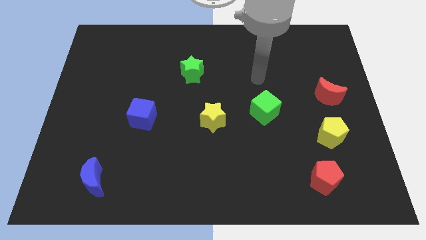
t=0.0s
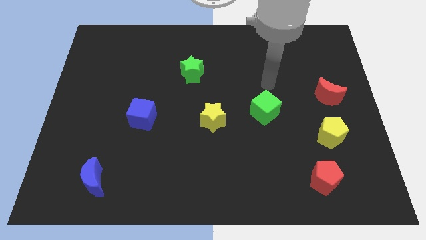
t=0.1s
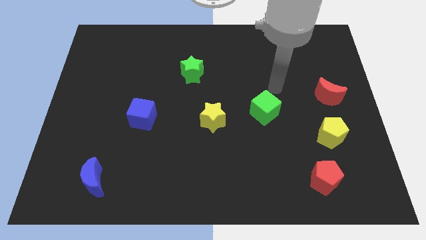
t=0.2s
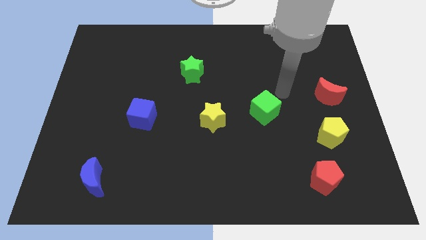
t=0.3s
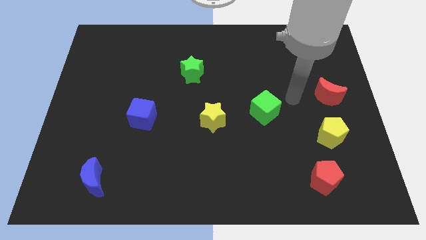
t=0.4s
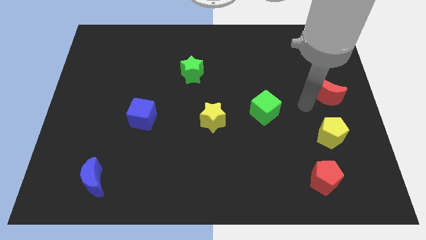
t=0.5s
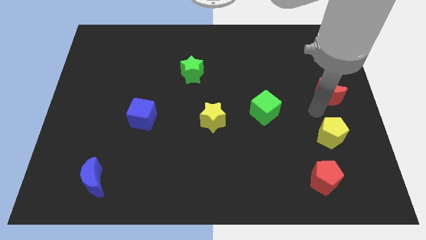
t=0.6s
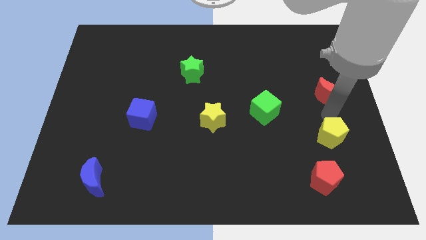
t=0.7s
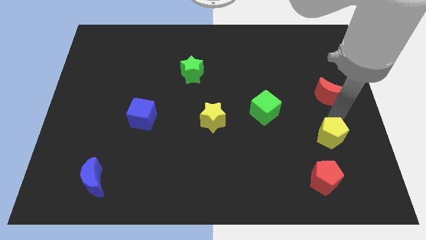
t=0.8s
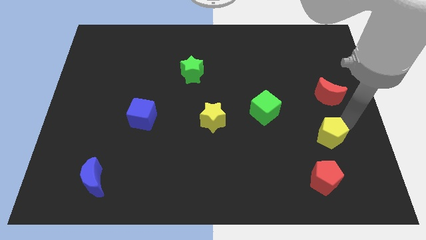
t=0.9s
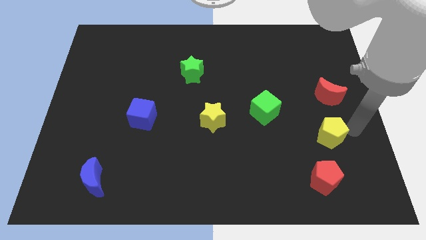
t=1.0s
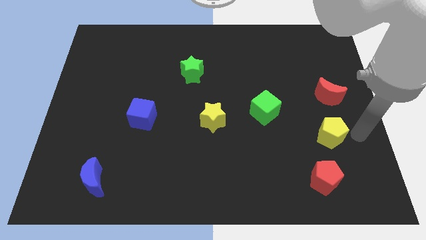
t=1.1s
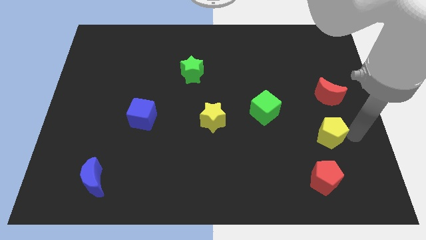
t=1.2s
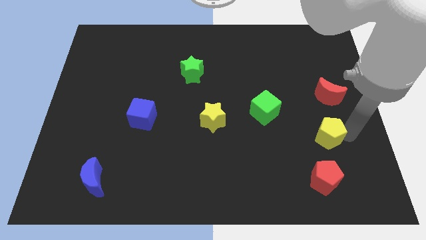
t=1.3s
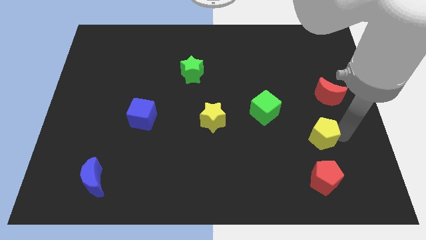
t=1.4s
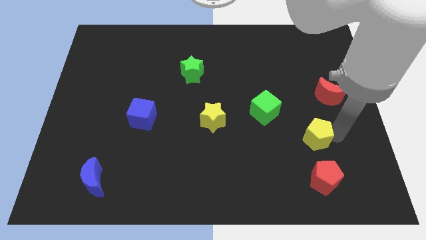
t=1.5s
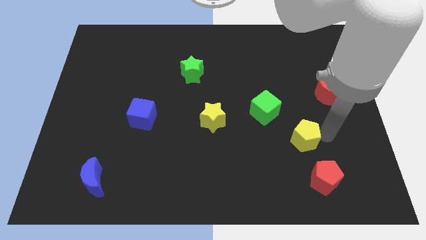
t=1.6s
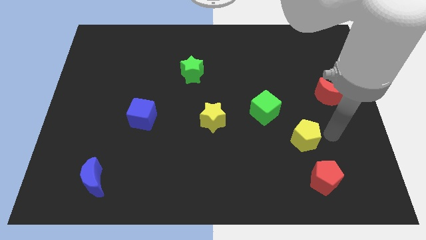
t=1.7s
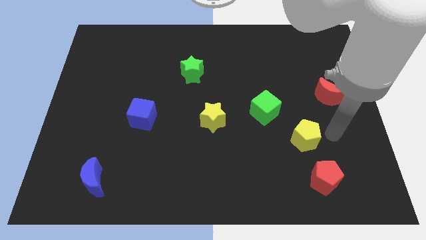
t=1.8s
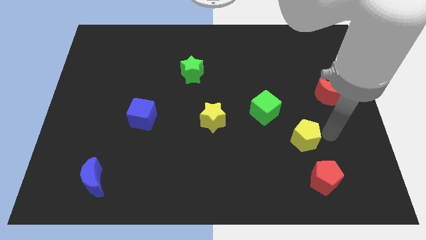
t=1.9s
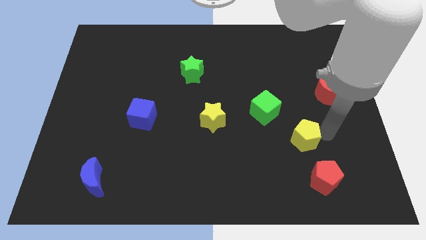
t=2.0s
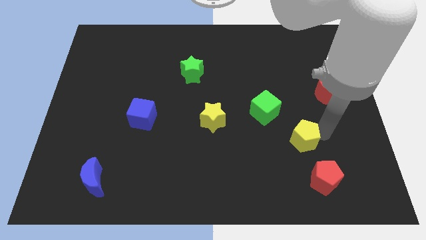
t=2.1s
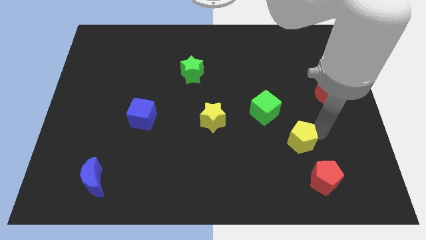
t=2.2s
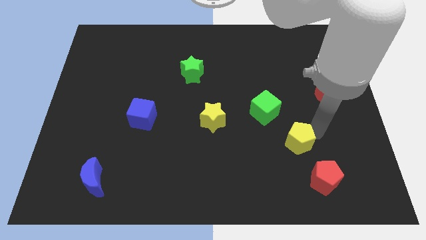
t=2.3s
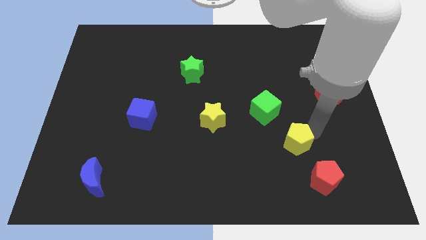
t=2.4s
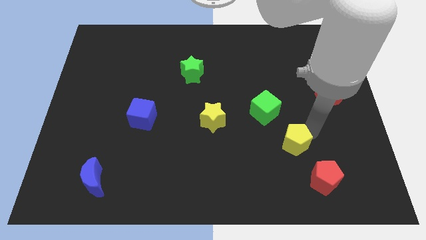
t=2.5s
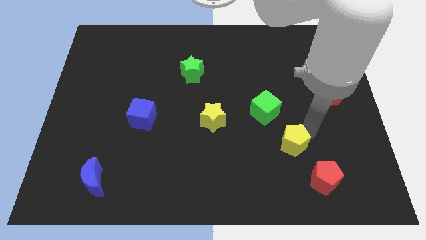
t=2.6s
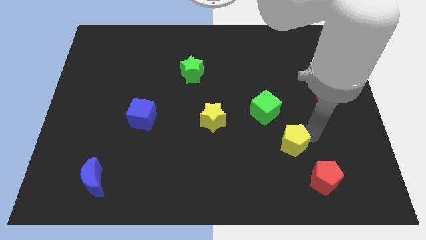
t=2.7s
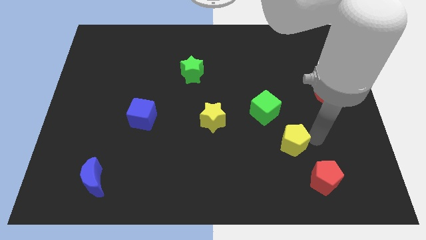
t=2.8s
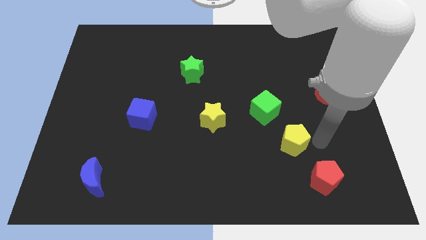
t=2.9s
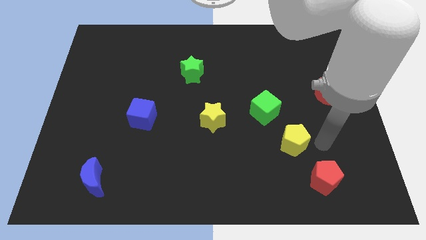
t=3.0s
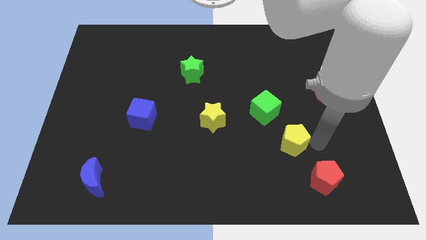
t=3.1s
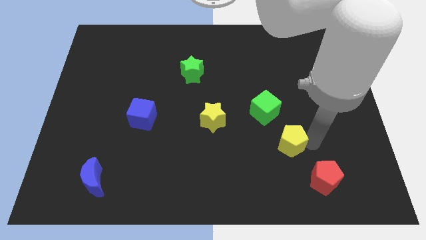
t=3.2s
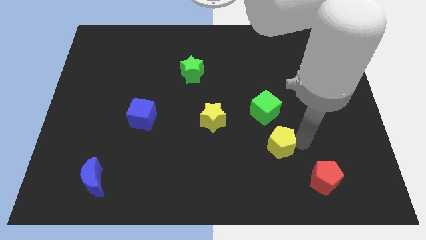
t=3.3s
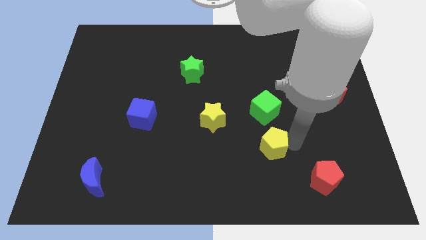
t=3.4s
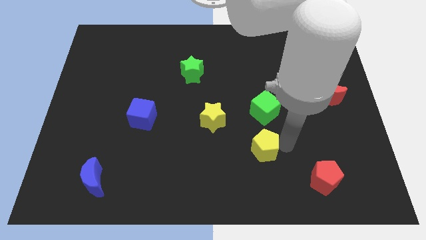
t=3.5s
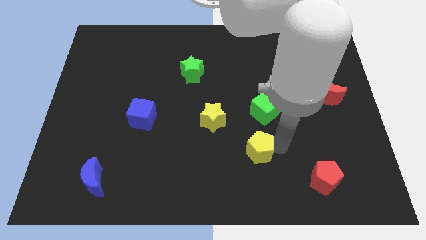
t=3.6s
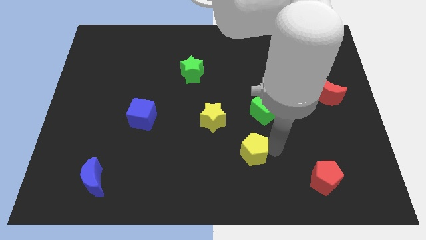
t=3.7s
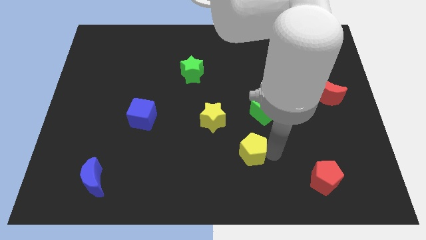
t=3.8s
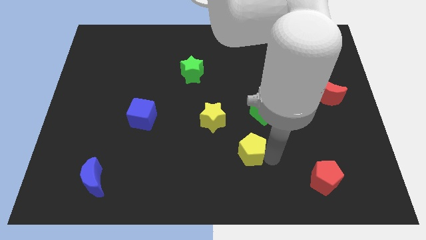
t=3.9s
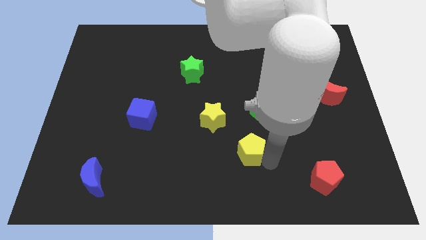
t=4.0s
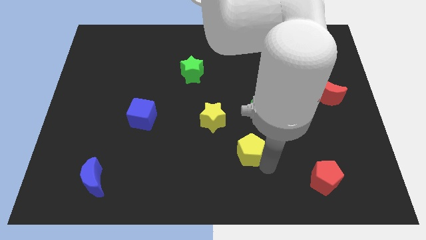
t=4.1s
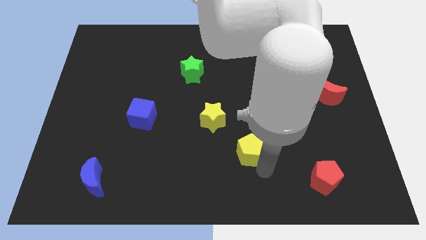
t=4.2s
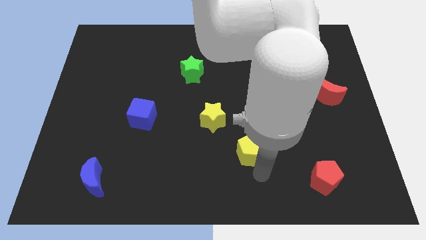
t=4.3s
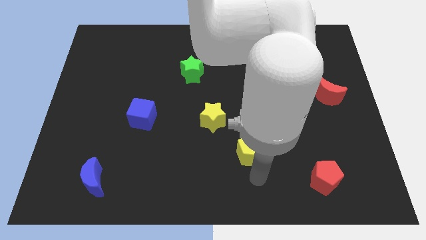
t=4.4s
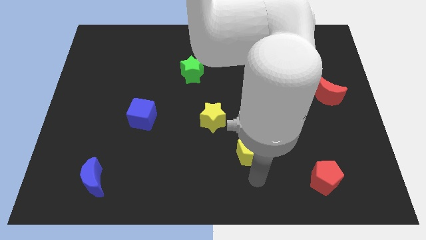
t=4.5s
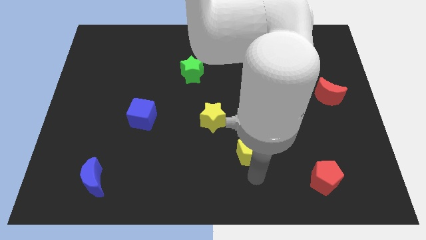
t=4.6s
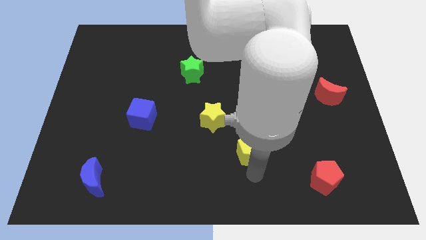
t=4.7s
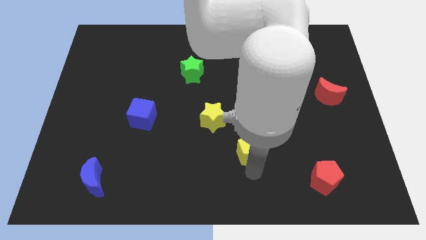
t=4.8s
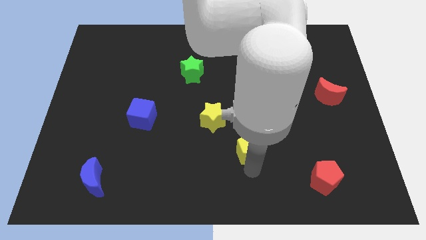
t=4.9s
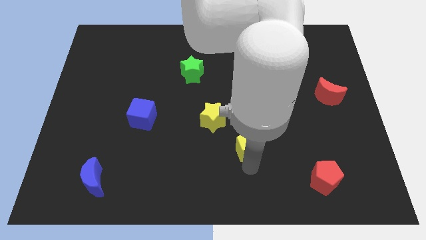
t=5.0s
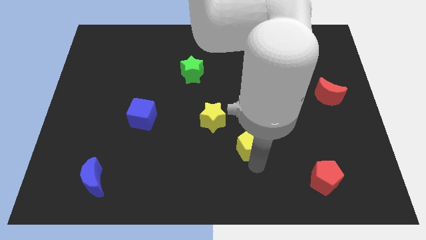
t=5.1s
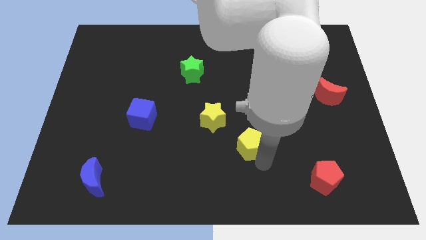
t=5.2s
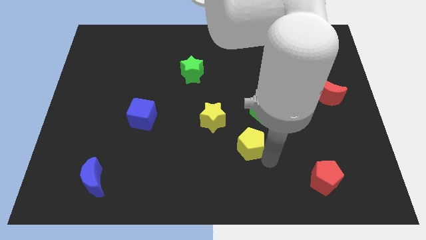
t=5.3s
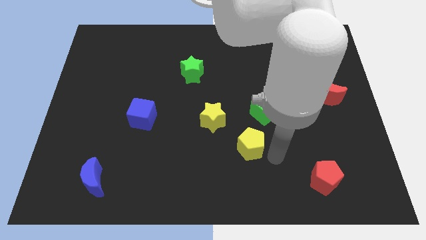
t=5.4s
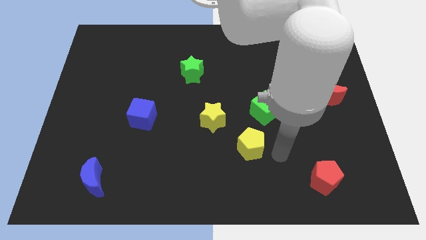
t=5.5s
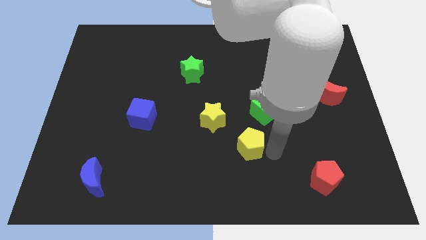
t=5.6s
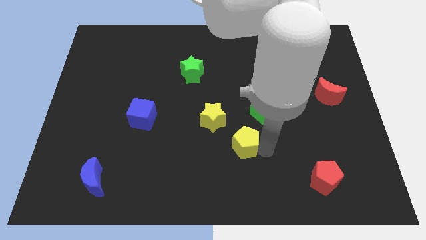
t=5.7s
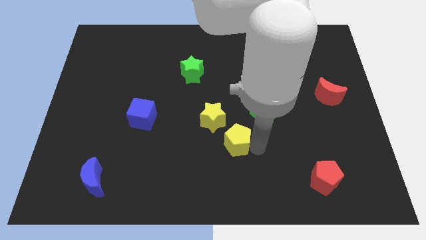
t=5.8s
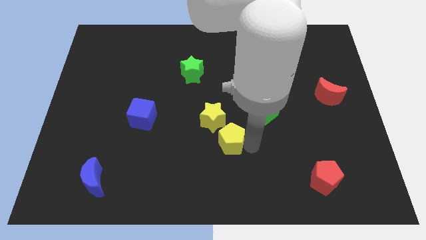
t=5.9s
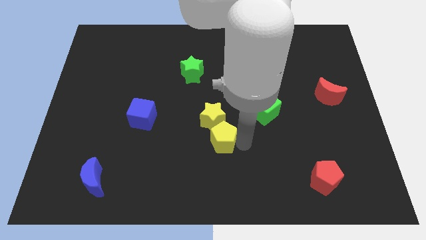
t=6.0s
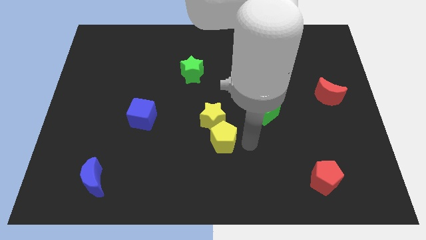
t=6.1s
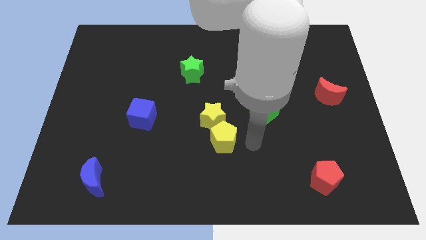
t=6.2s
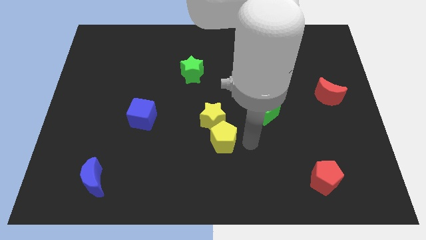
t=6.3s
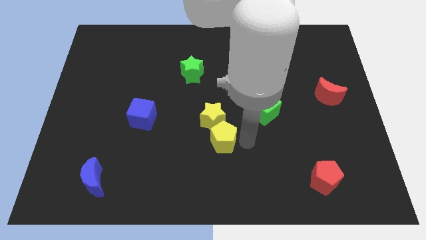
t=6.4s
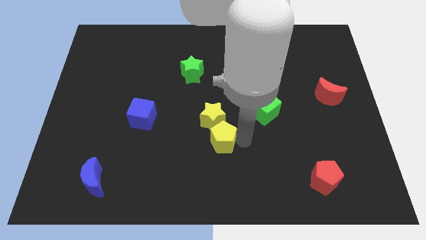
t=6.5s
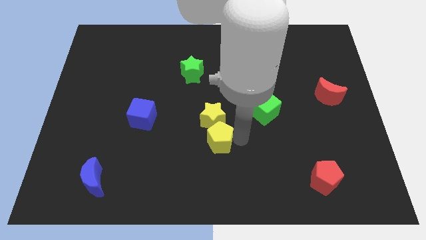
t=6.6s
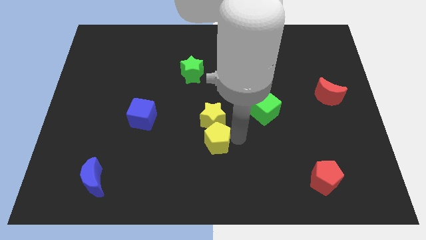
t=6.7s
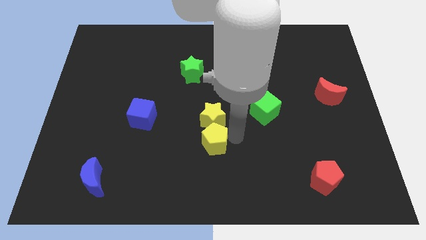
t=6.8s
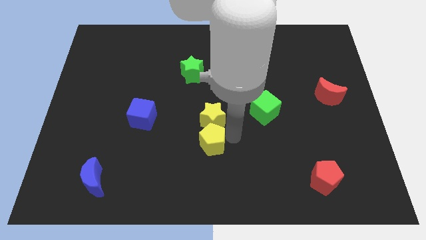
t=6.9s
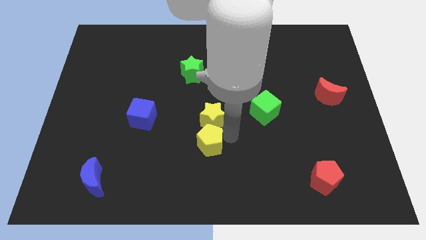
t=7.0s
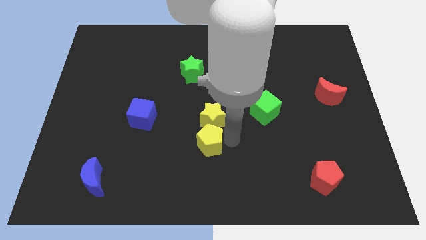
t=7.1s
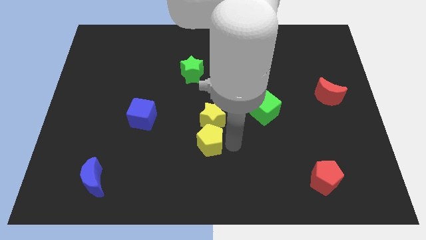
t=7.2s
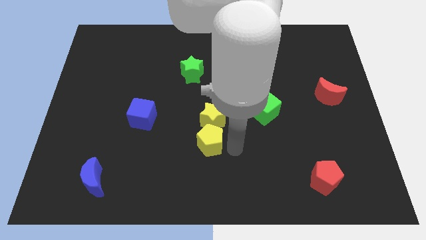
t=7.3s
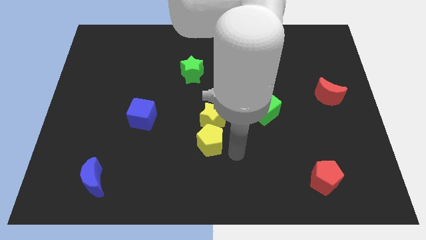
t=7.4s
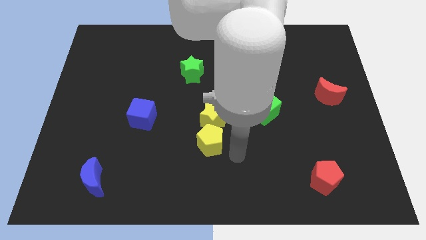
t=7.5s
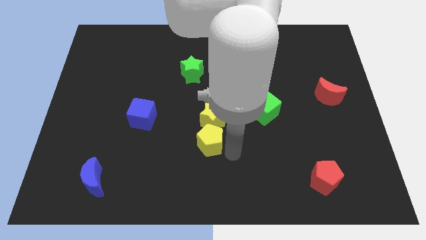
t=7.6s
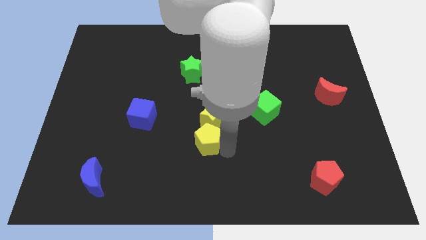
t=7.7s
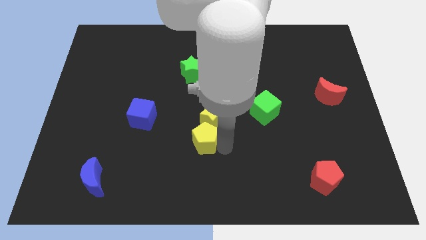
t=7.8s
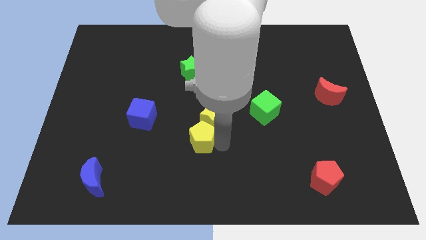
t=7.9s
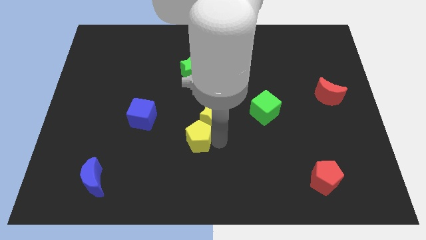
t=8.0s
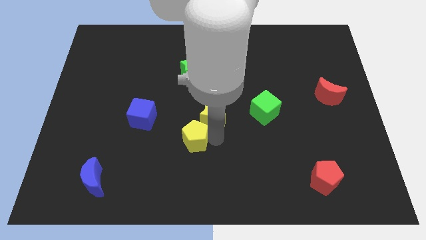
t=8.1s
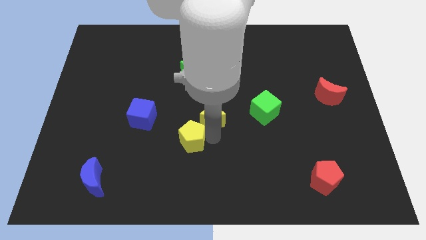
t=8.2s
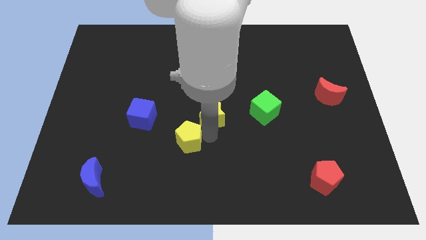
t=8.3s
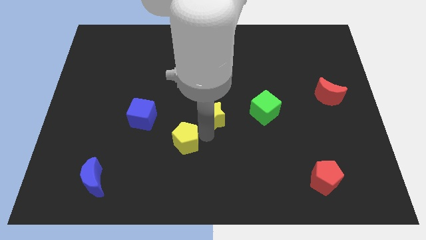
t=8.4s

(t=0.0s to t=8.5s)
slide the yellow pentagon diagonally down and to the right of the blue cube
